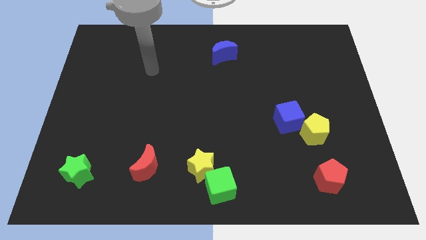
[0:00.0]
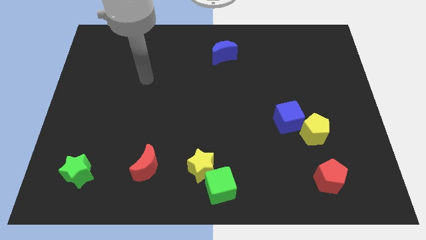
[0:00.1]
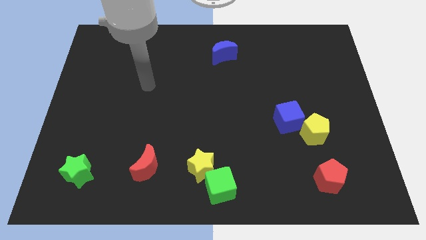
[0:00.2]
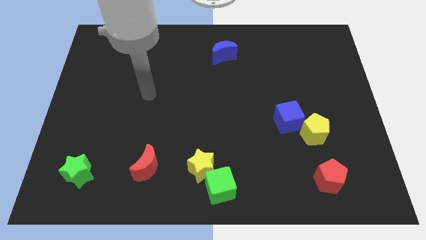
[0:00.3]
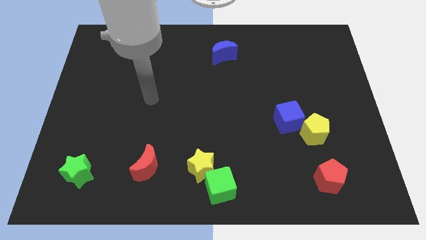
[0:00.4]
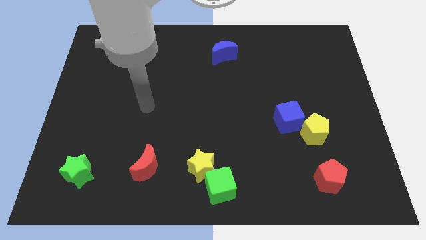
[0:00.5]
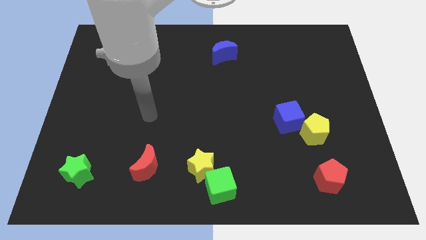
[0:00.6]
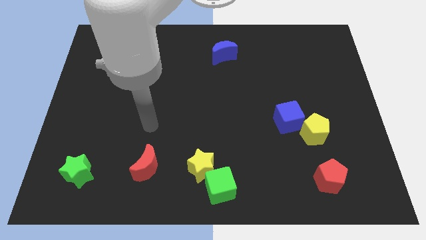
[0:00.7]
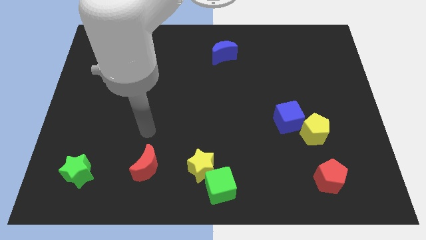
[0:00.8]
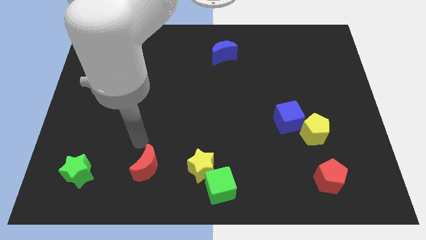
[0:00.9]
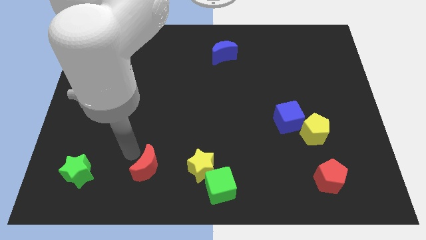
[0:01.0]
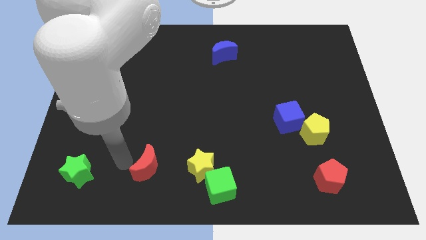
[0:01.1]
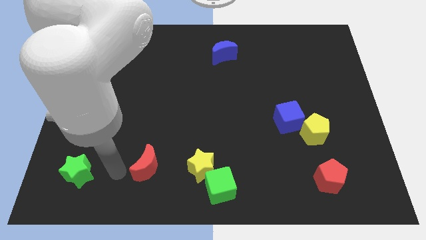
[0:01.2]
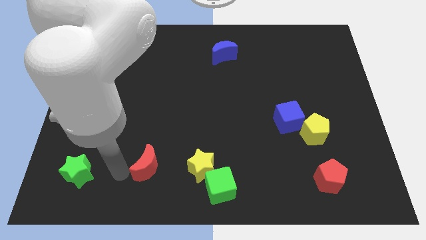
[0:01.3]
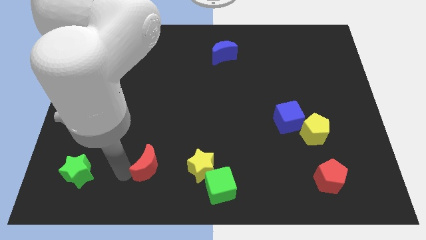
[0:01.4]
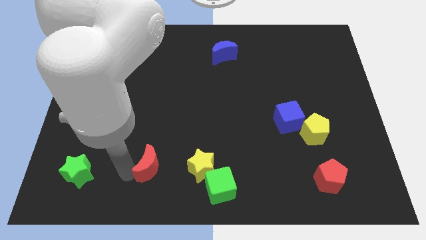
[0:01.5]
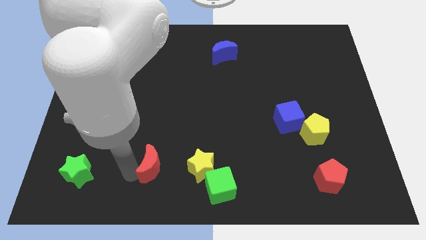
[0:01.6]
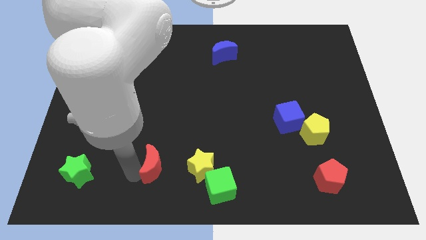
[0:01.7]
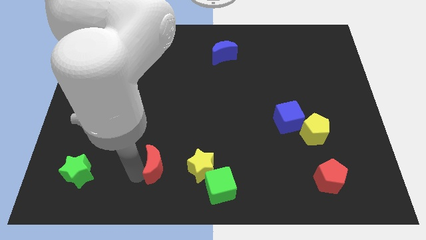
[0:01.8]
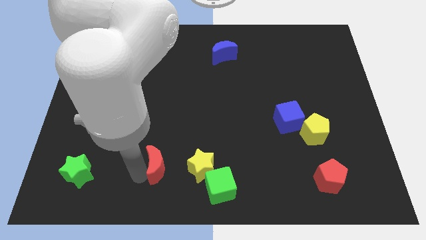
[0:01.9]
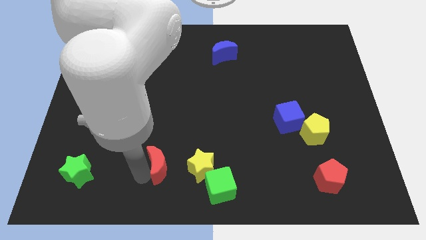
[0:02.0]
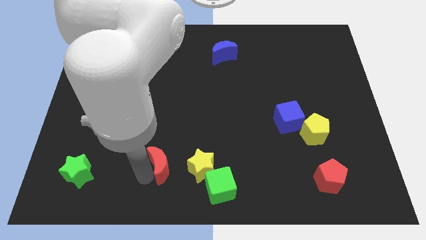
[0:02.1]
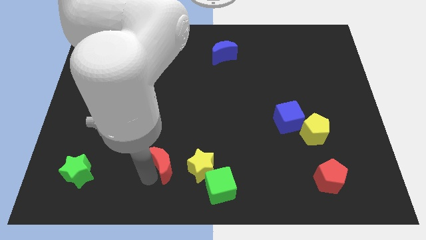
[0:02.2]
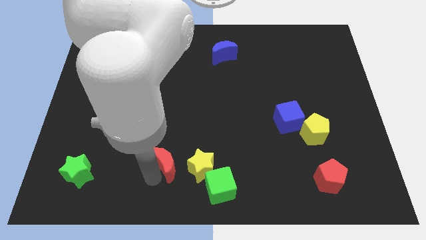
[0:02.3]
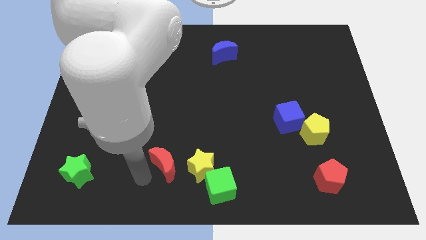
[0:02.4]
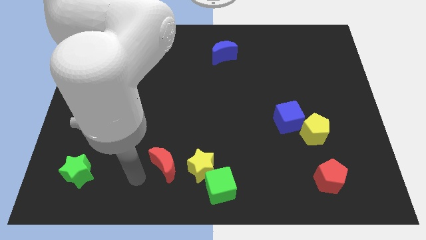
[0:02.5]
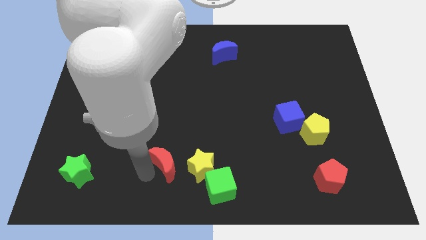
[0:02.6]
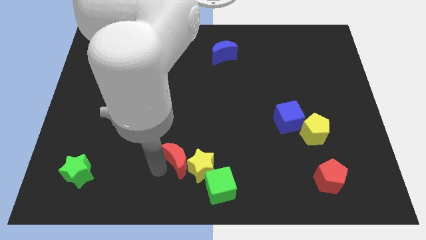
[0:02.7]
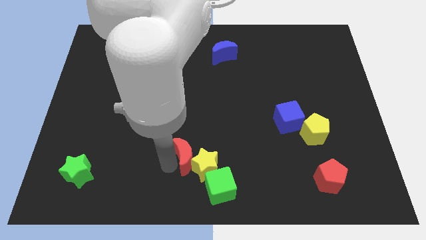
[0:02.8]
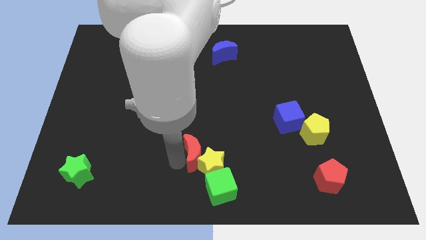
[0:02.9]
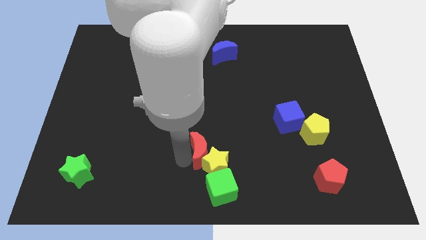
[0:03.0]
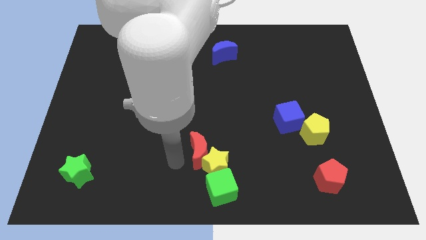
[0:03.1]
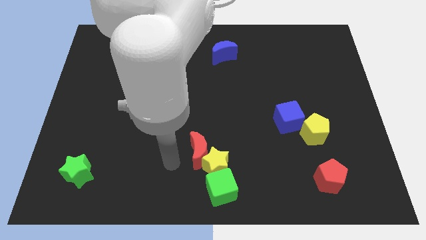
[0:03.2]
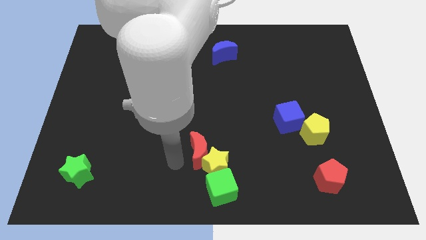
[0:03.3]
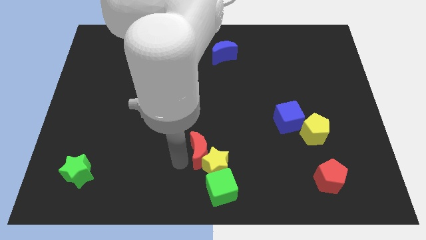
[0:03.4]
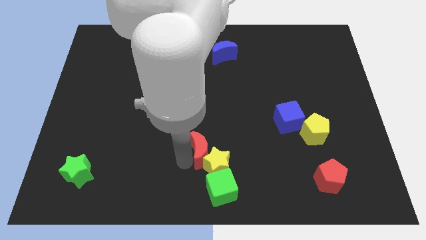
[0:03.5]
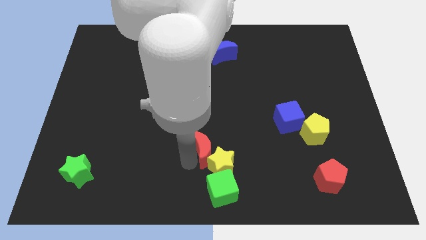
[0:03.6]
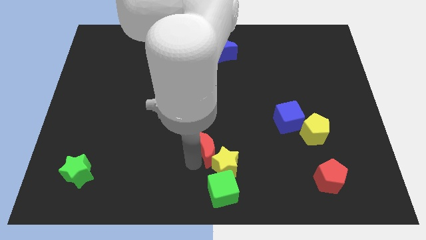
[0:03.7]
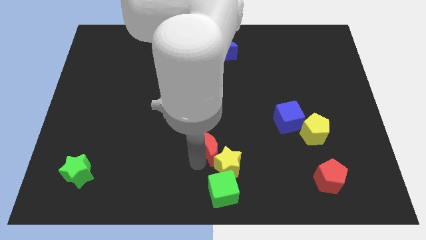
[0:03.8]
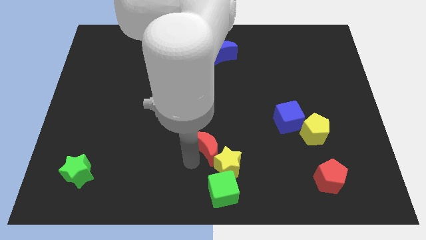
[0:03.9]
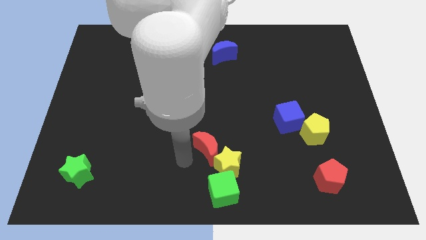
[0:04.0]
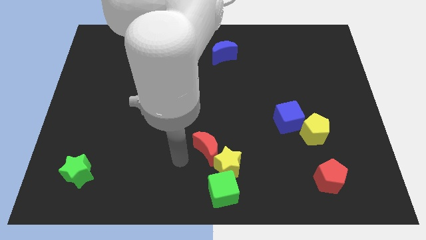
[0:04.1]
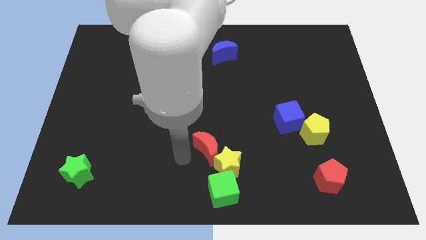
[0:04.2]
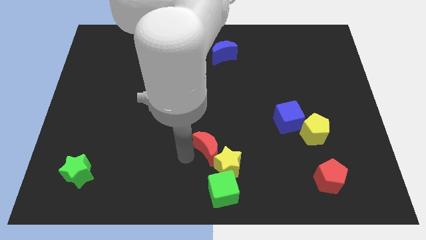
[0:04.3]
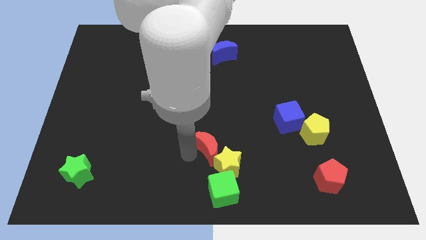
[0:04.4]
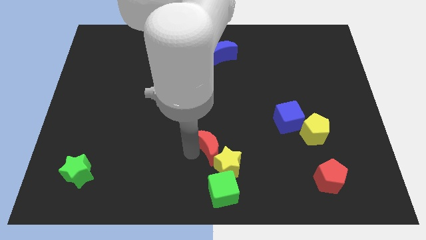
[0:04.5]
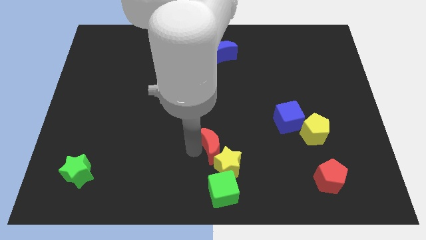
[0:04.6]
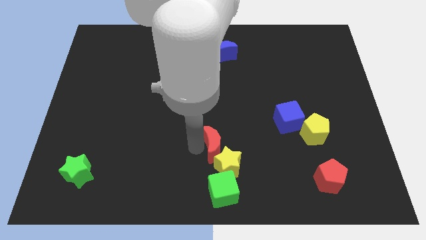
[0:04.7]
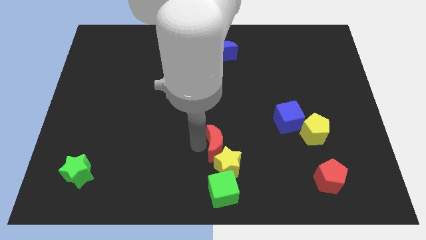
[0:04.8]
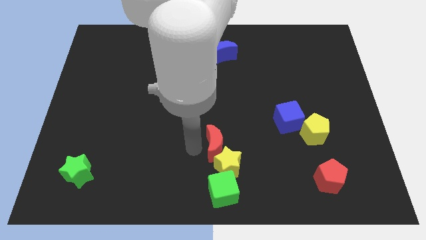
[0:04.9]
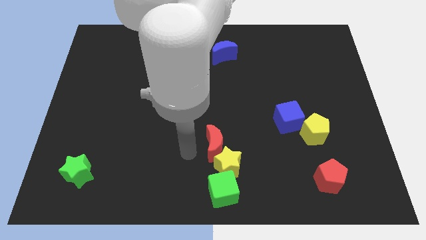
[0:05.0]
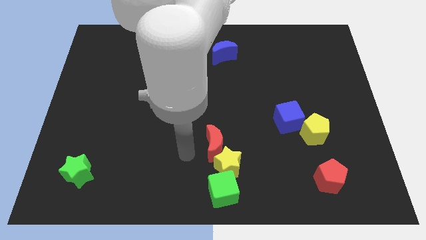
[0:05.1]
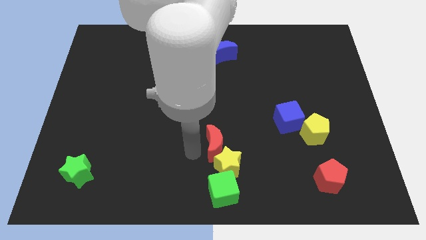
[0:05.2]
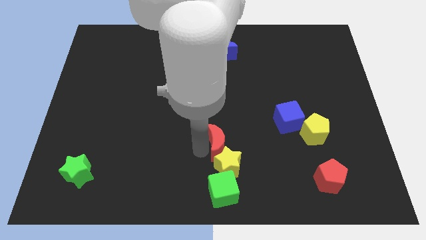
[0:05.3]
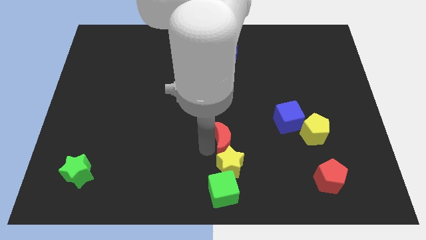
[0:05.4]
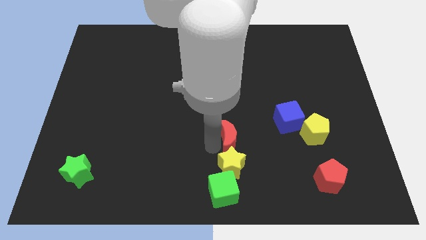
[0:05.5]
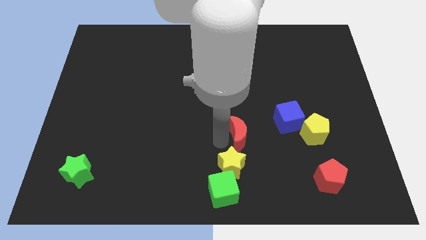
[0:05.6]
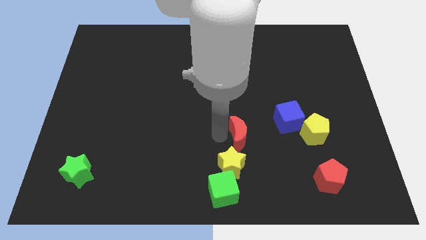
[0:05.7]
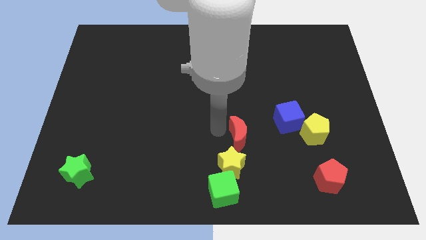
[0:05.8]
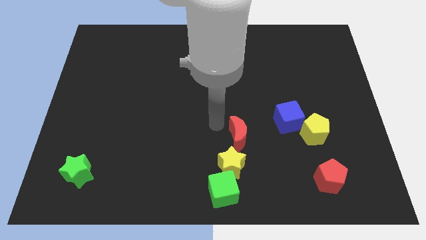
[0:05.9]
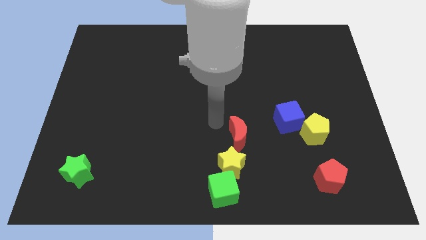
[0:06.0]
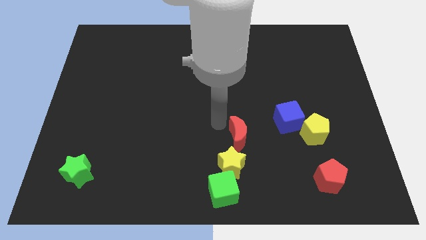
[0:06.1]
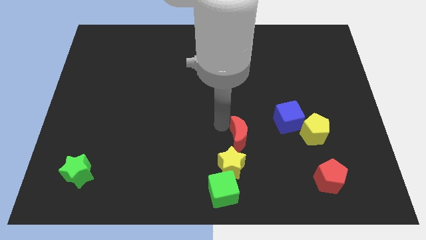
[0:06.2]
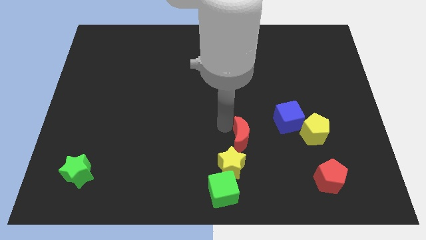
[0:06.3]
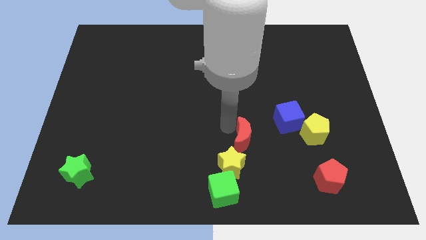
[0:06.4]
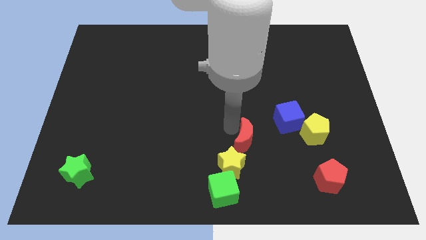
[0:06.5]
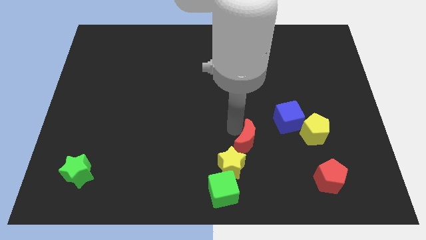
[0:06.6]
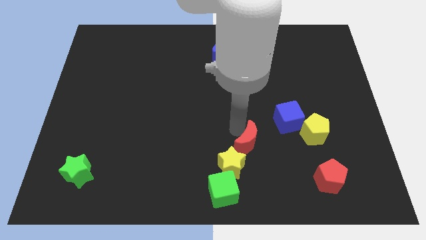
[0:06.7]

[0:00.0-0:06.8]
move the red moon to the right

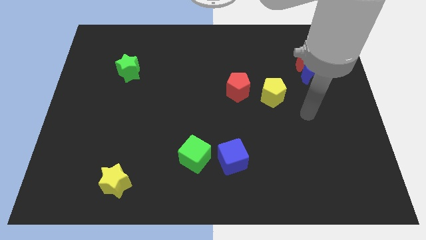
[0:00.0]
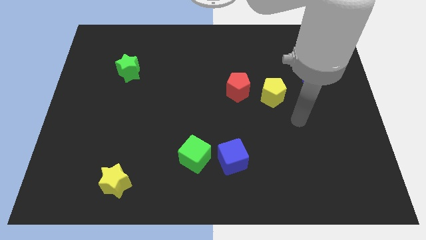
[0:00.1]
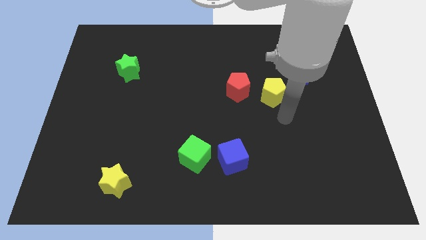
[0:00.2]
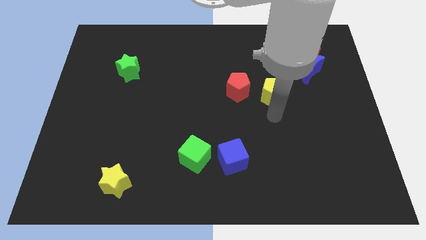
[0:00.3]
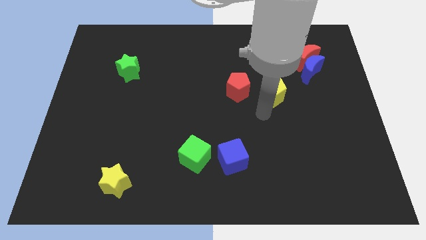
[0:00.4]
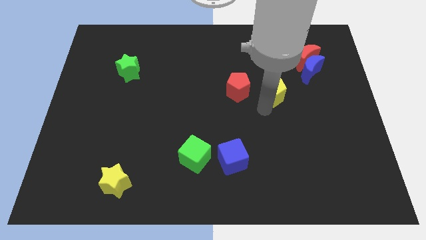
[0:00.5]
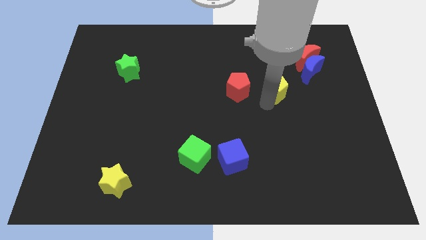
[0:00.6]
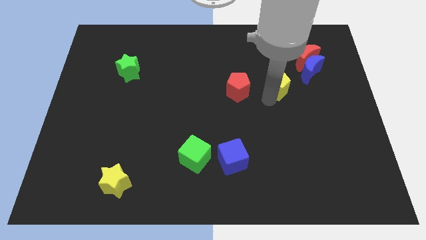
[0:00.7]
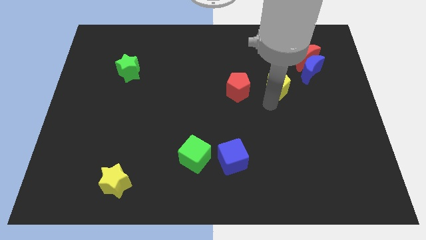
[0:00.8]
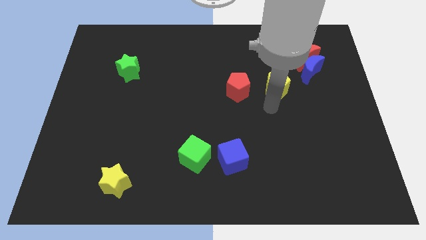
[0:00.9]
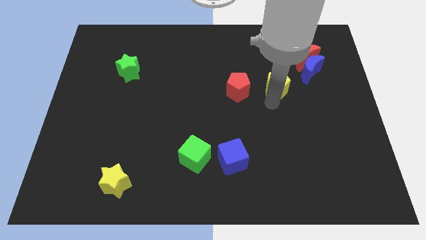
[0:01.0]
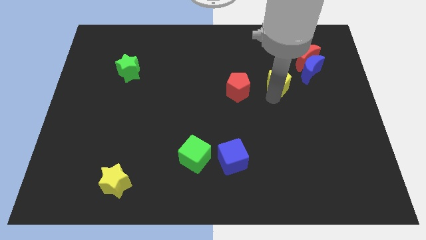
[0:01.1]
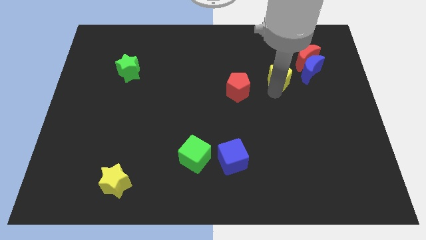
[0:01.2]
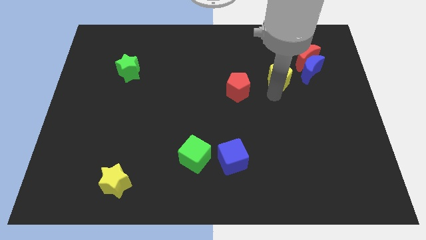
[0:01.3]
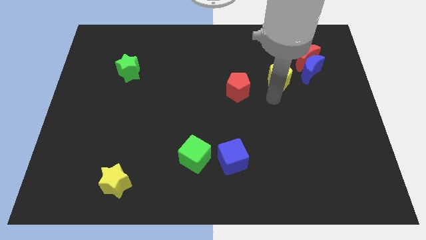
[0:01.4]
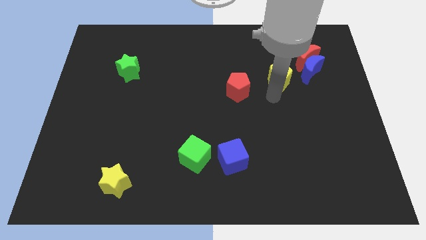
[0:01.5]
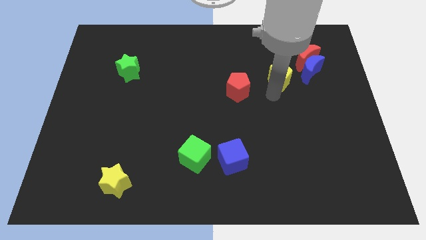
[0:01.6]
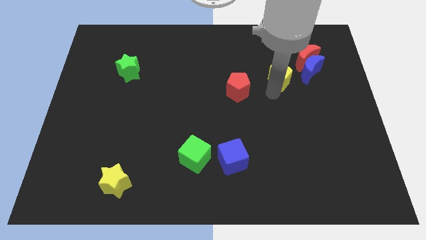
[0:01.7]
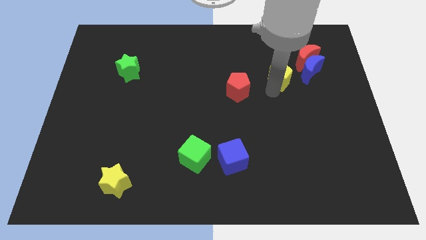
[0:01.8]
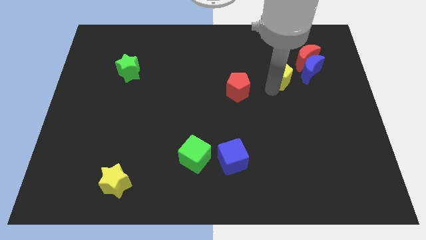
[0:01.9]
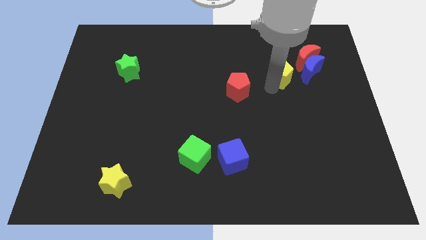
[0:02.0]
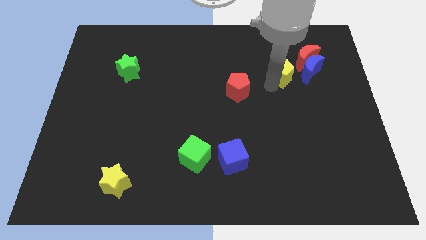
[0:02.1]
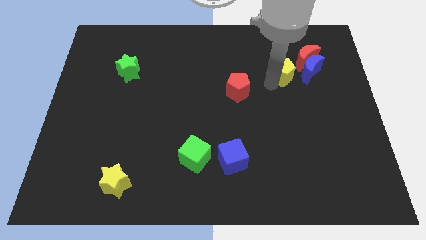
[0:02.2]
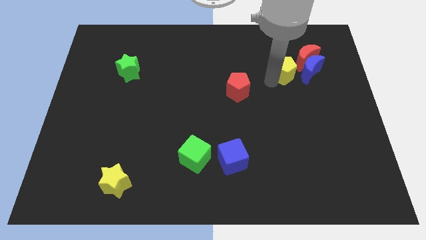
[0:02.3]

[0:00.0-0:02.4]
move the yellow pentagon a bit diagonally up and to the right
